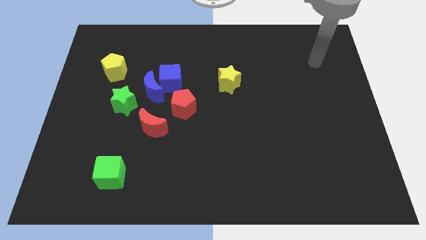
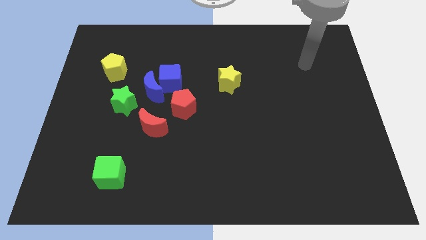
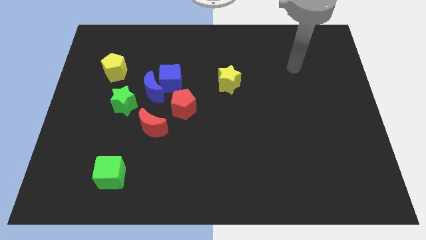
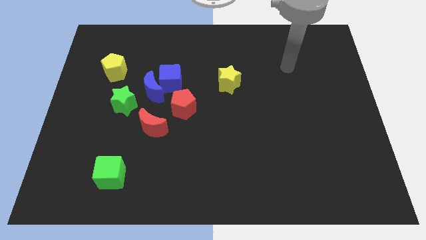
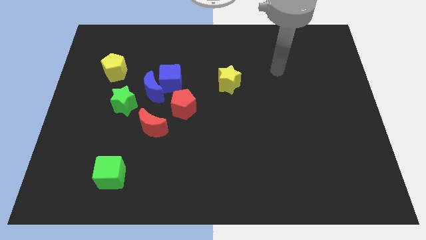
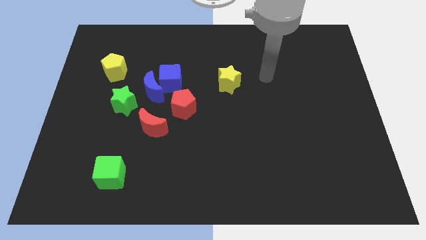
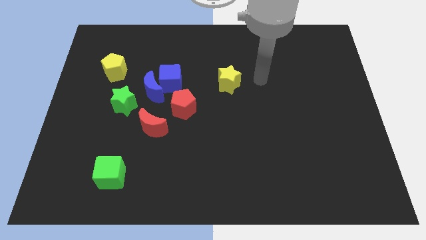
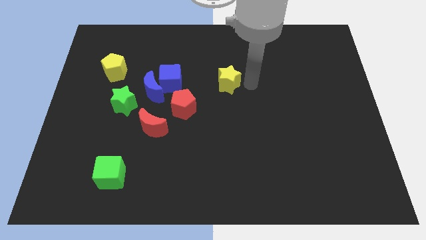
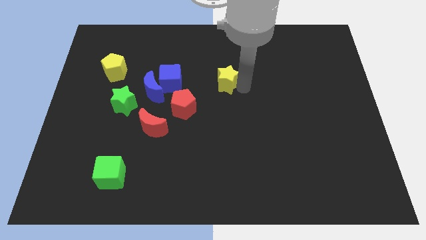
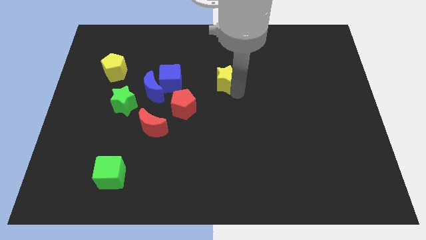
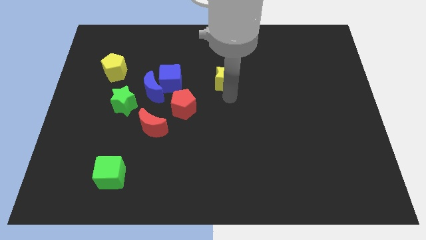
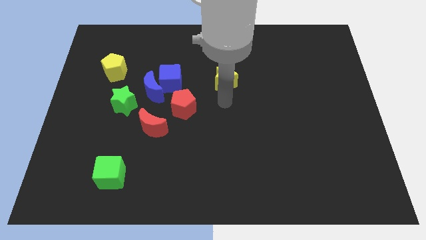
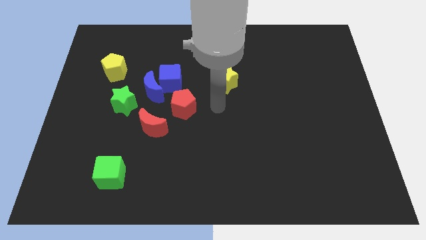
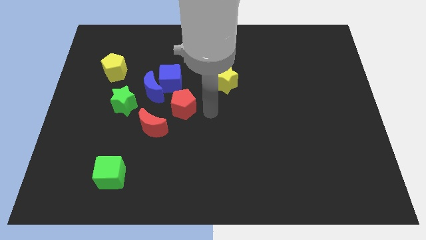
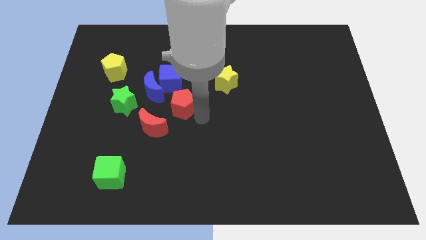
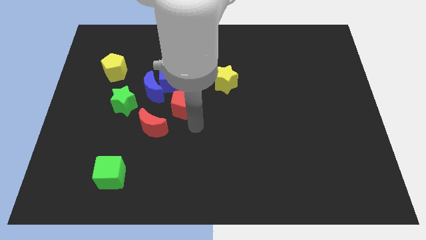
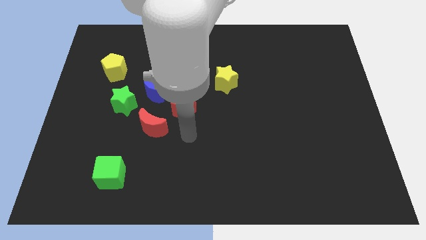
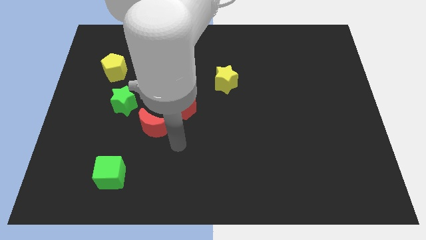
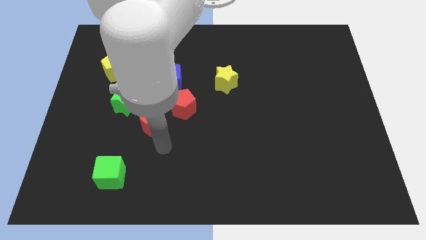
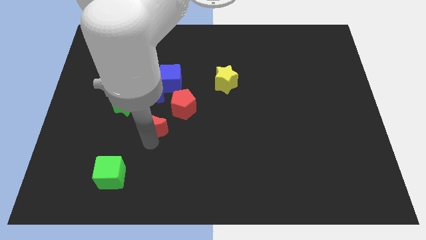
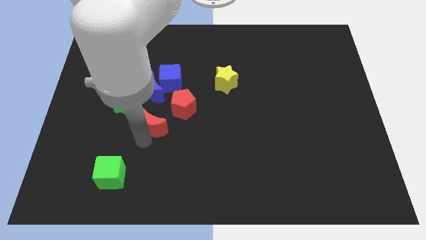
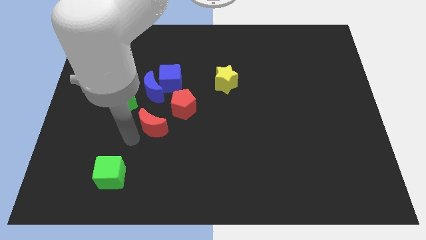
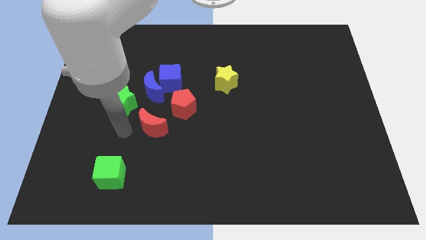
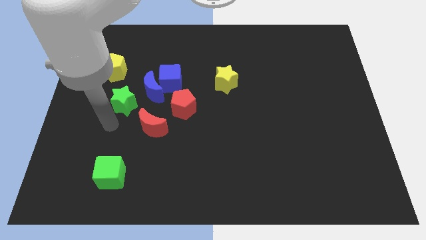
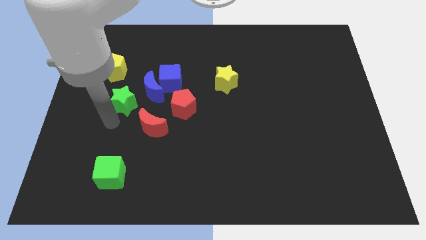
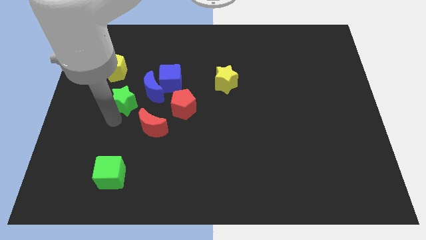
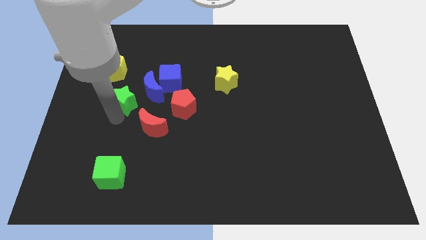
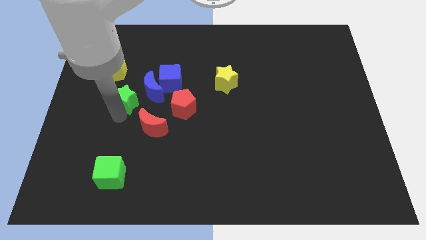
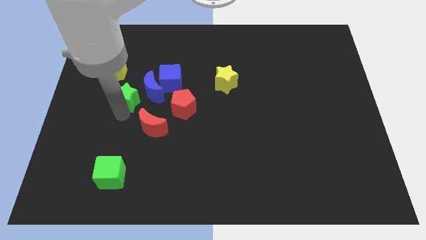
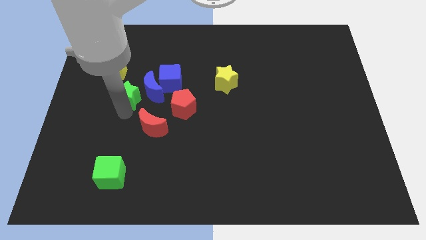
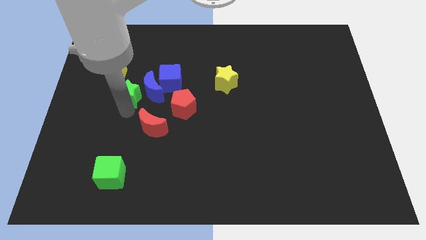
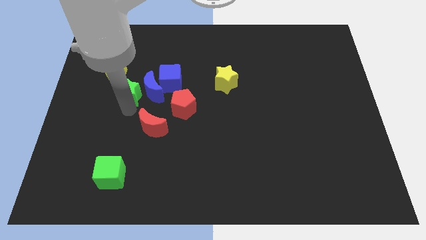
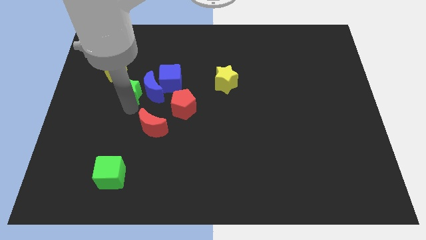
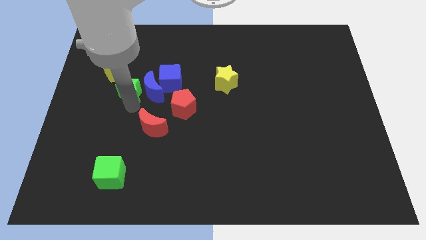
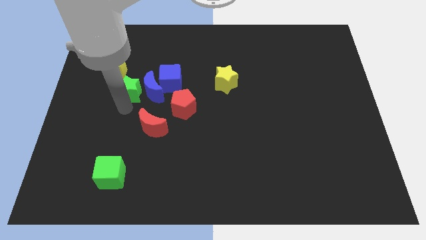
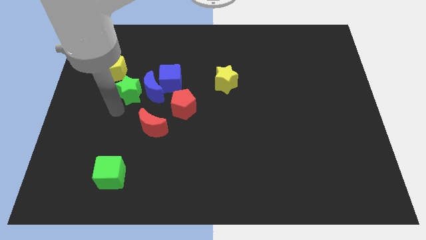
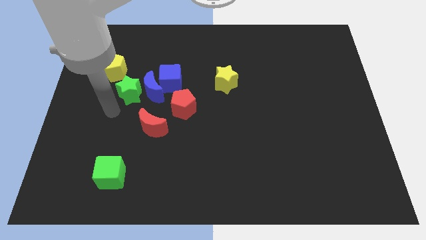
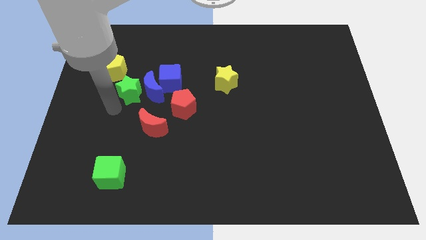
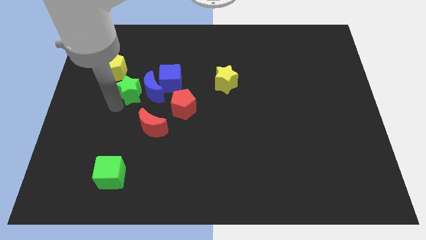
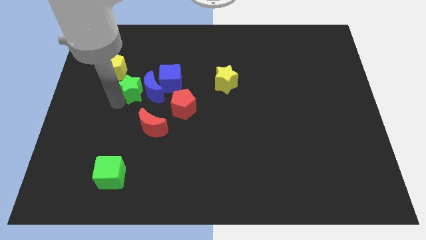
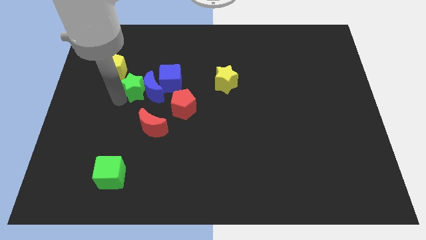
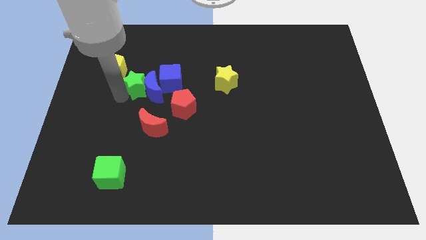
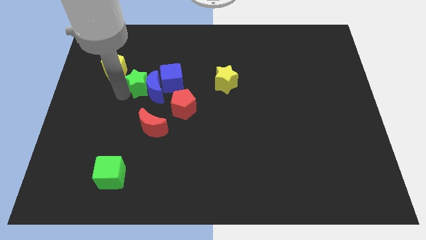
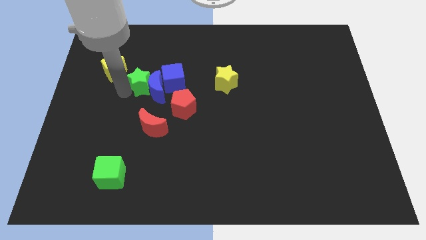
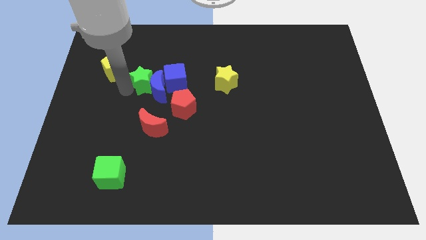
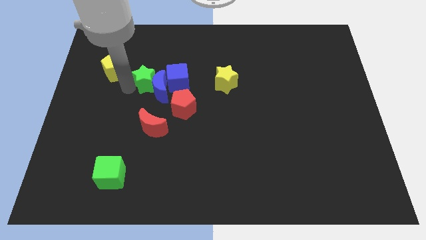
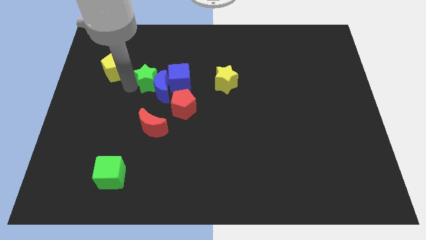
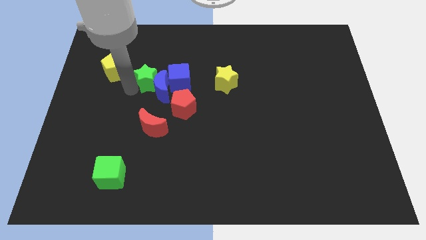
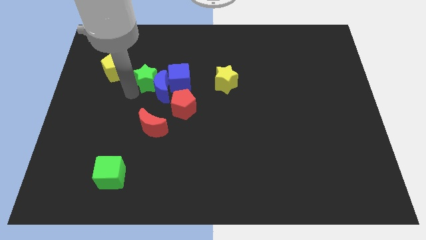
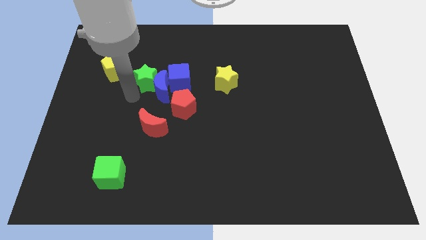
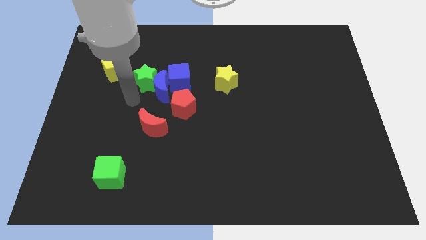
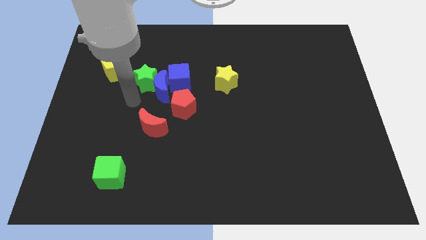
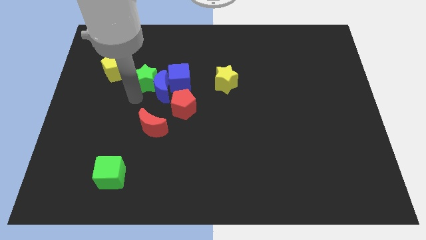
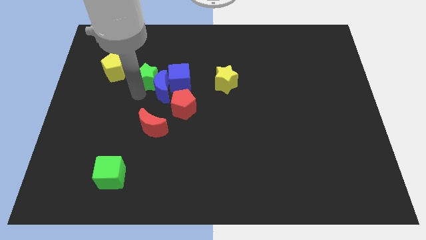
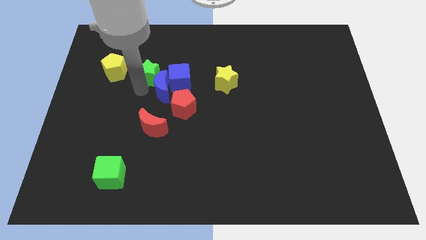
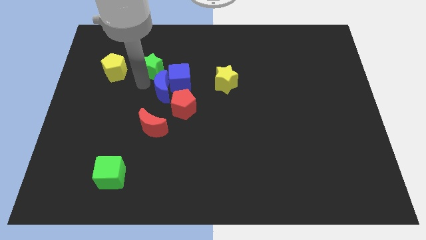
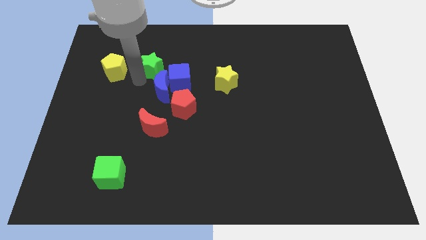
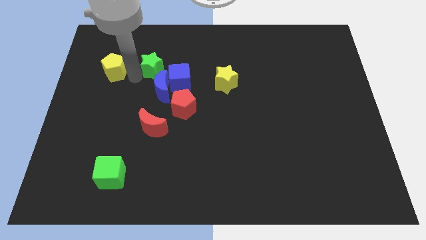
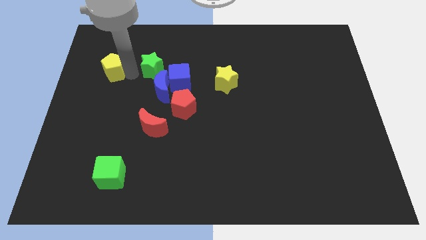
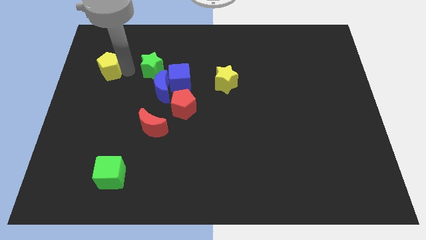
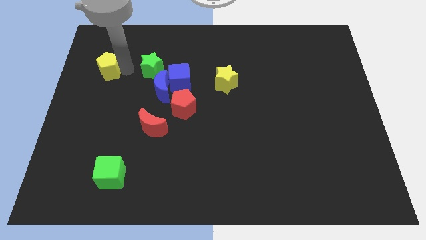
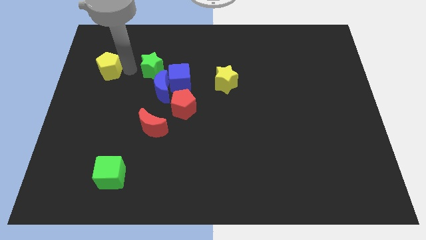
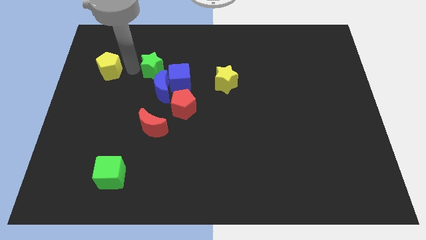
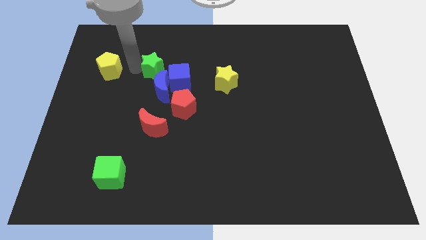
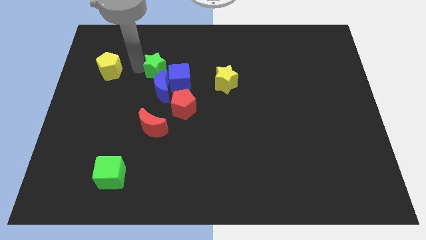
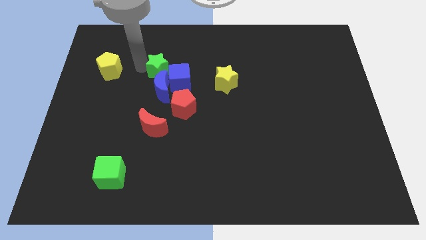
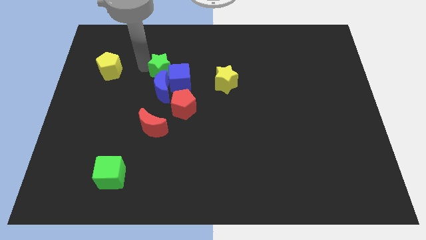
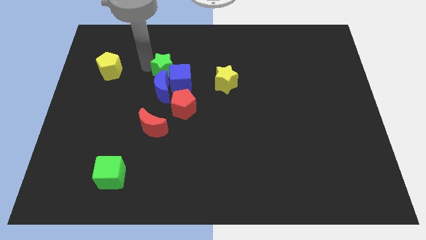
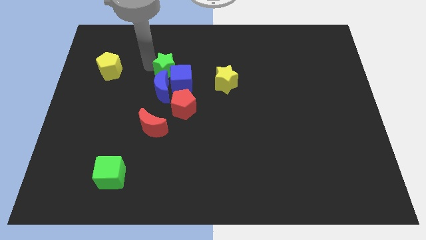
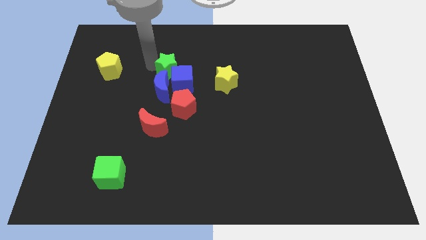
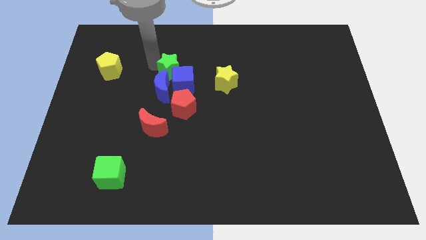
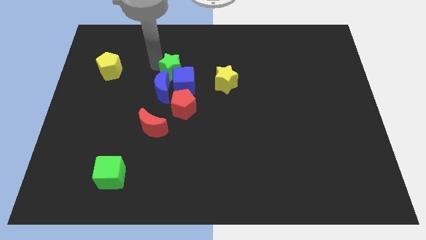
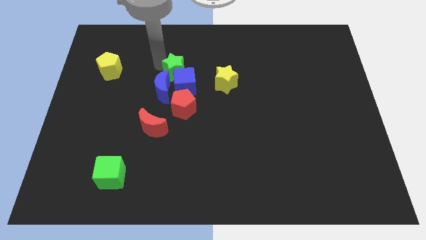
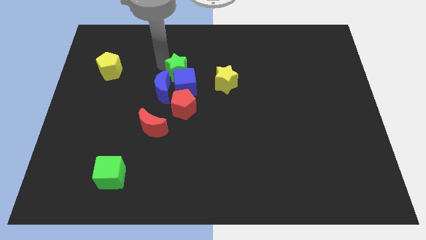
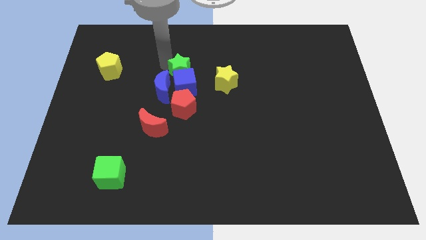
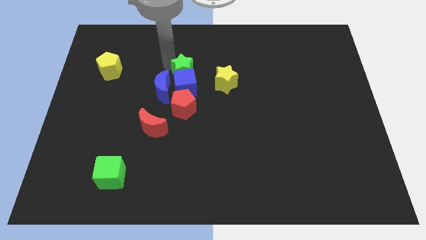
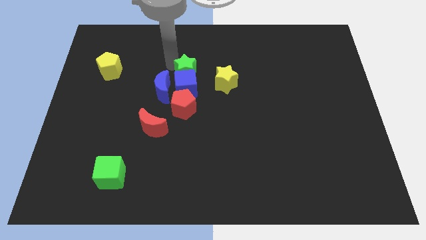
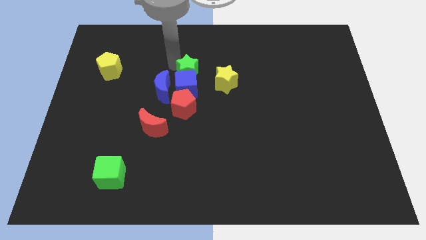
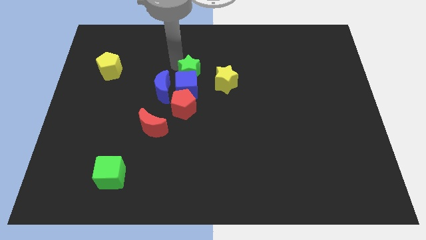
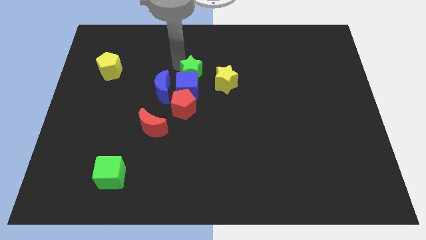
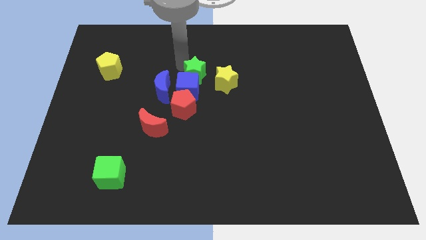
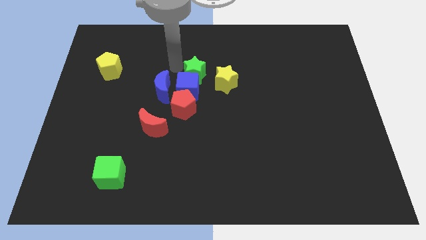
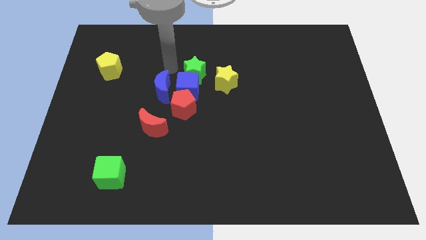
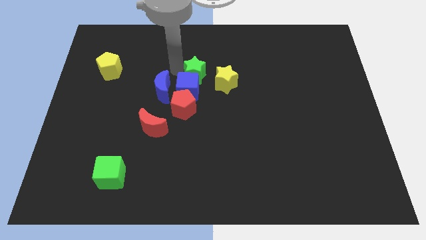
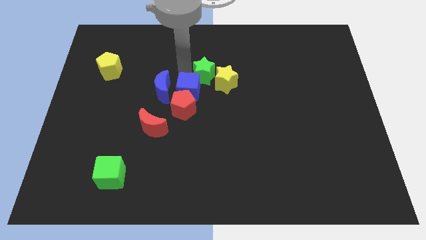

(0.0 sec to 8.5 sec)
slide the green star to the yellow star
